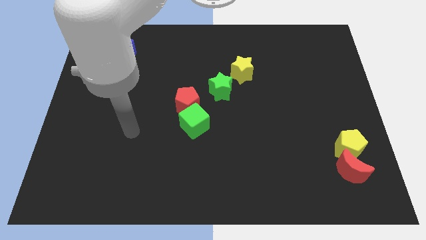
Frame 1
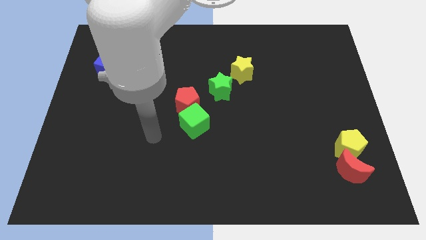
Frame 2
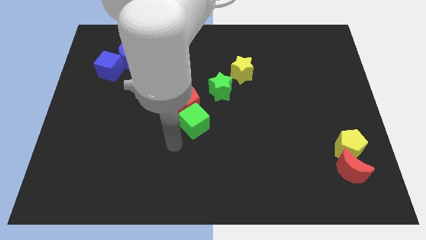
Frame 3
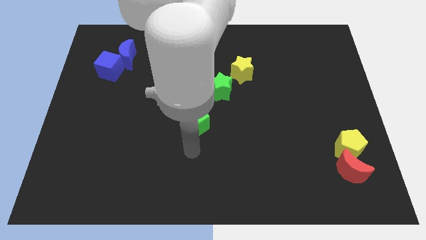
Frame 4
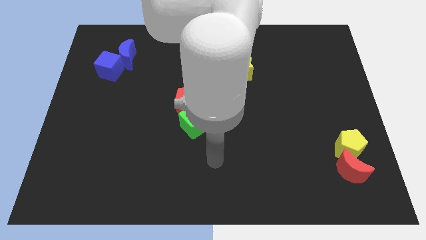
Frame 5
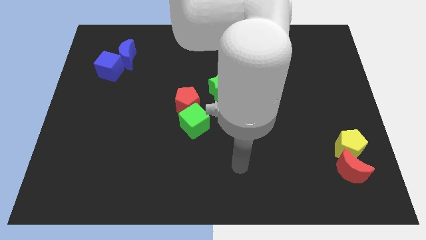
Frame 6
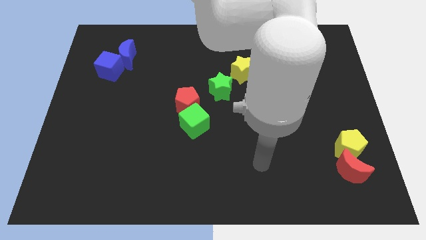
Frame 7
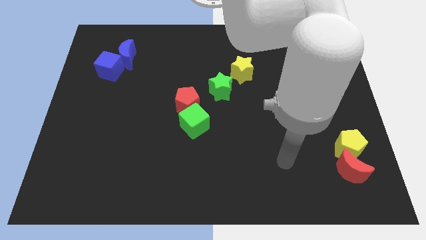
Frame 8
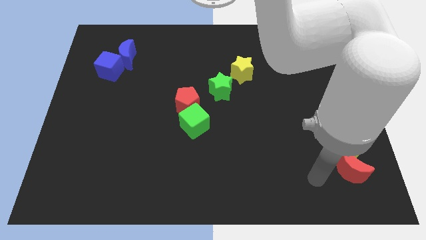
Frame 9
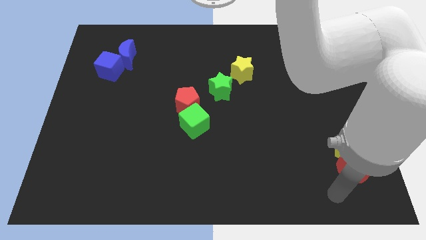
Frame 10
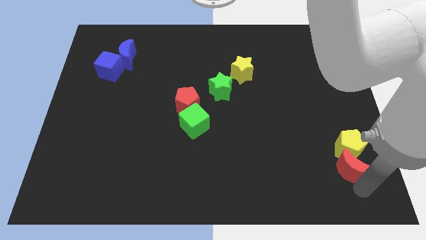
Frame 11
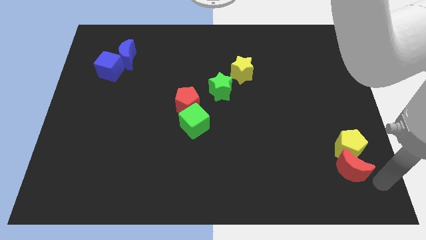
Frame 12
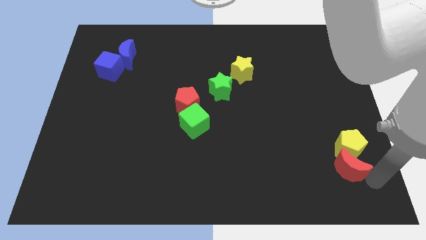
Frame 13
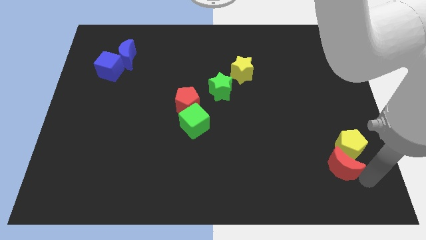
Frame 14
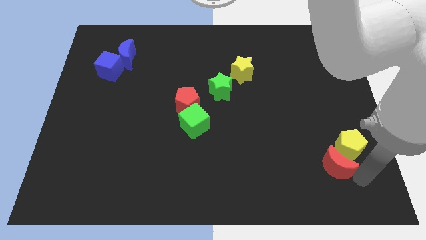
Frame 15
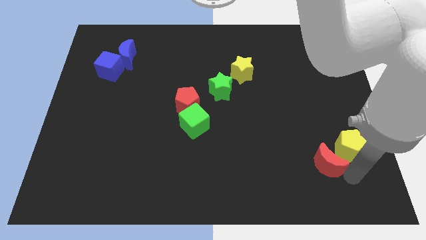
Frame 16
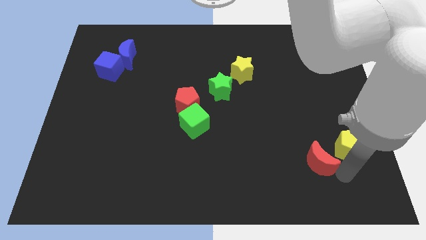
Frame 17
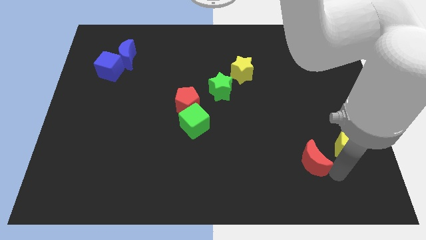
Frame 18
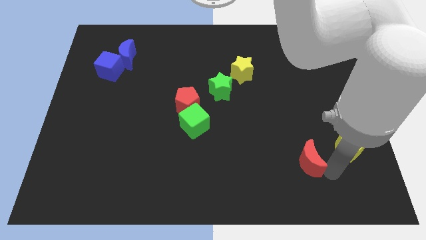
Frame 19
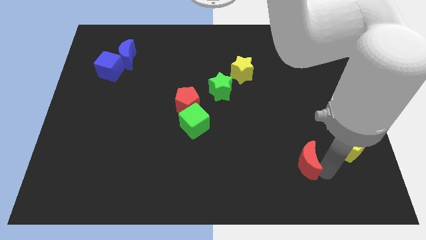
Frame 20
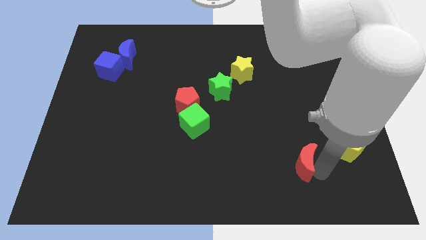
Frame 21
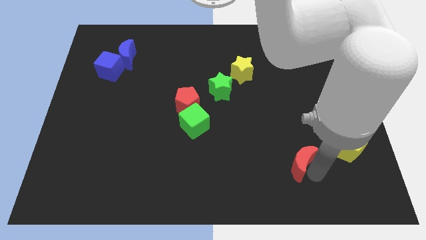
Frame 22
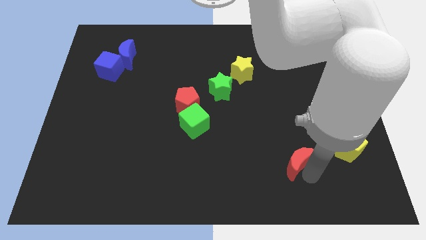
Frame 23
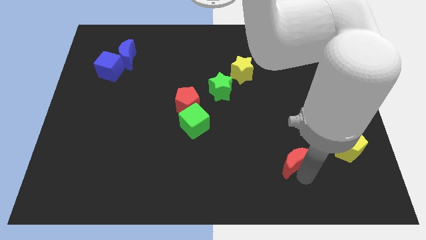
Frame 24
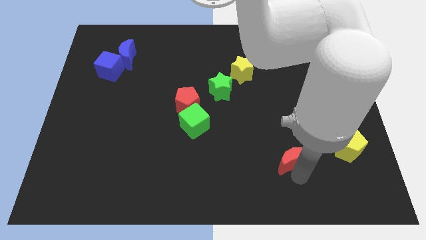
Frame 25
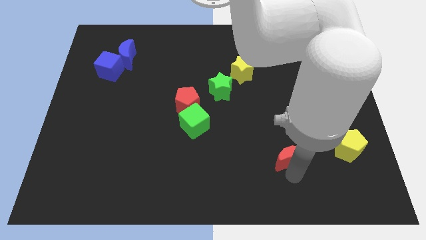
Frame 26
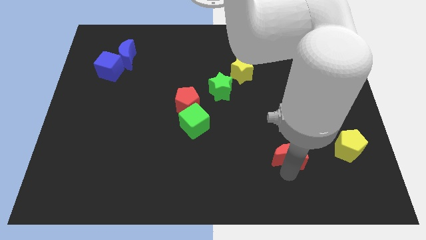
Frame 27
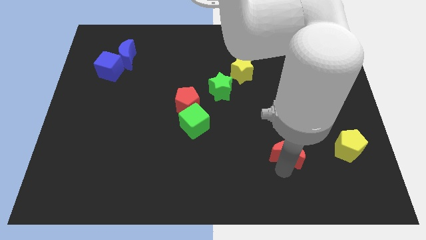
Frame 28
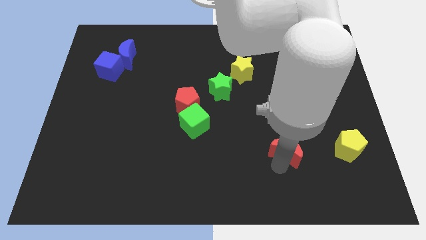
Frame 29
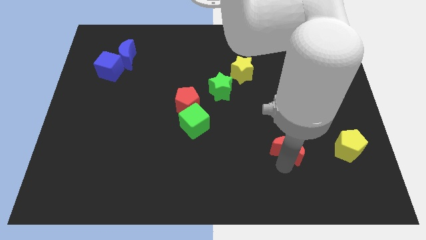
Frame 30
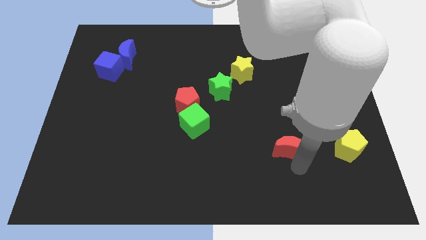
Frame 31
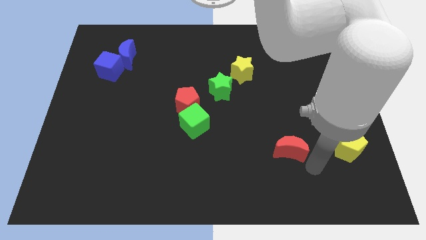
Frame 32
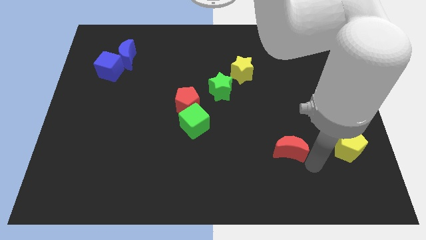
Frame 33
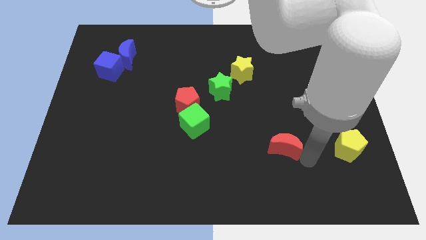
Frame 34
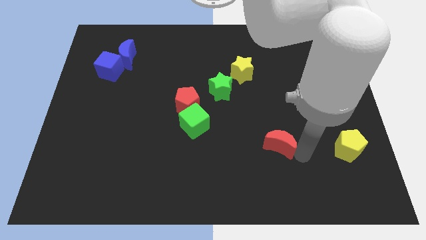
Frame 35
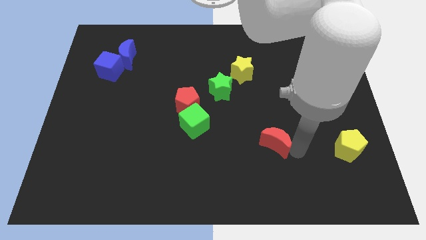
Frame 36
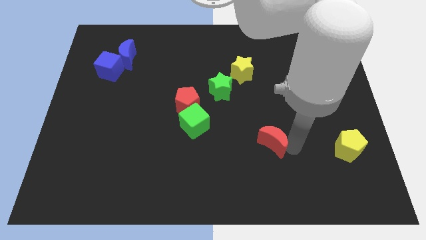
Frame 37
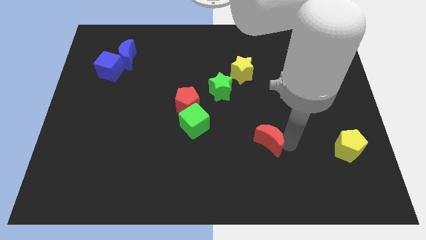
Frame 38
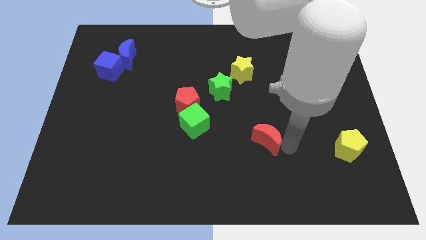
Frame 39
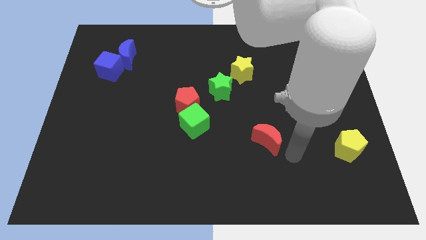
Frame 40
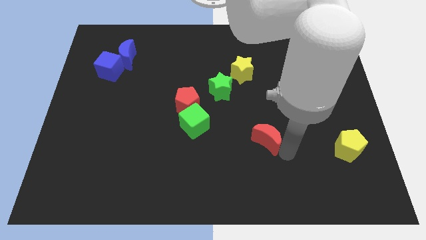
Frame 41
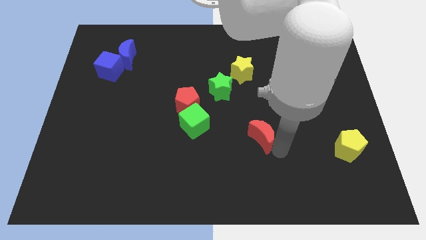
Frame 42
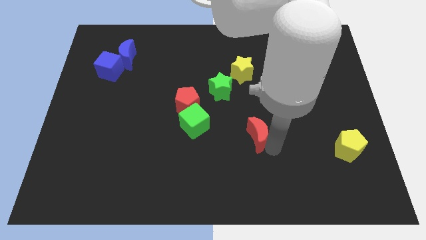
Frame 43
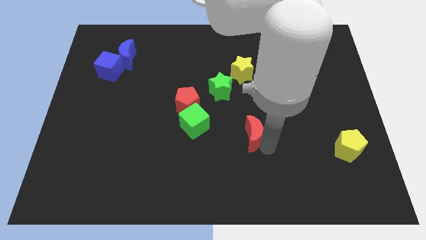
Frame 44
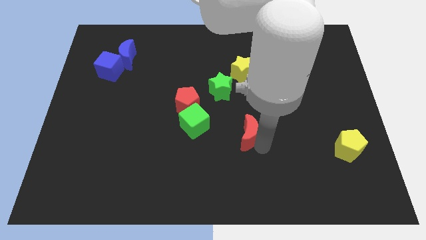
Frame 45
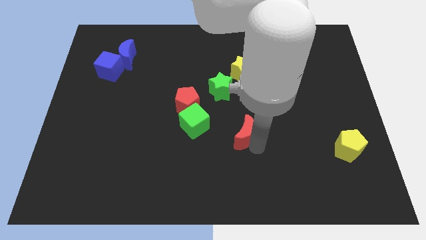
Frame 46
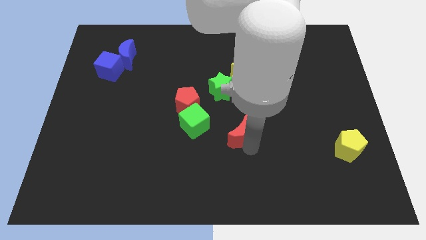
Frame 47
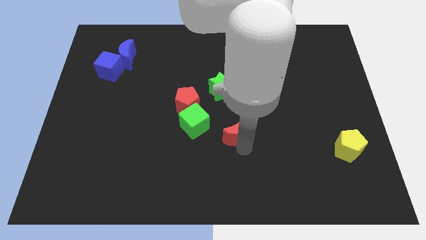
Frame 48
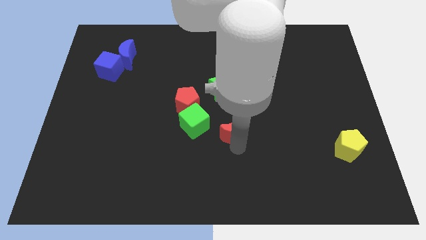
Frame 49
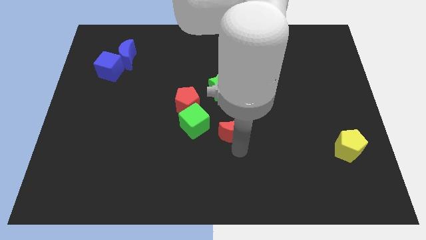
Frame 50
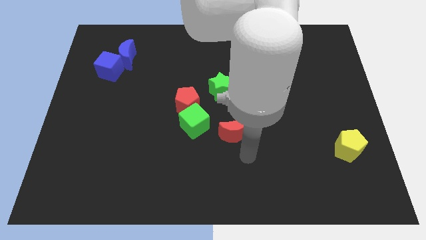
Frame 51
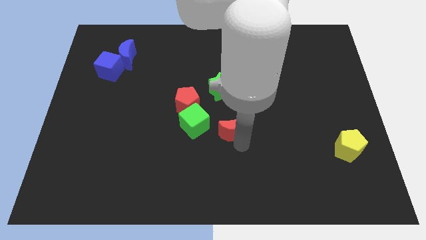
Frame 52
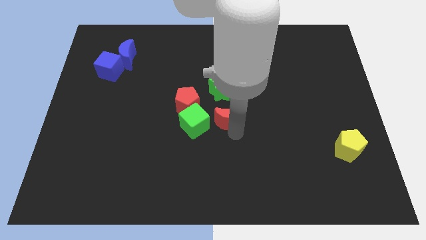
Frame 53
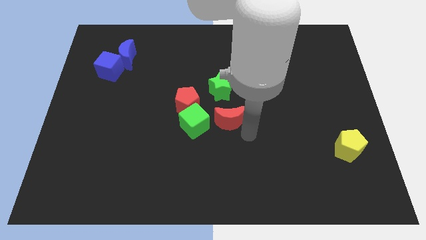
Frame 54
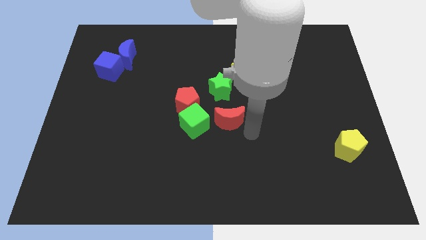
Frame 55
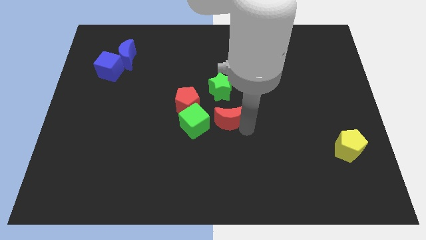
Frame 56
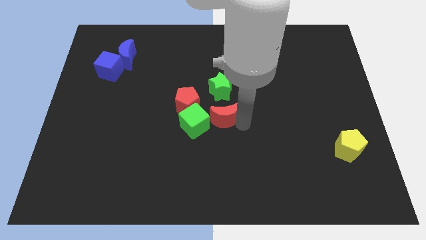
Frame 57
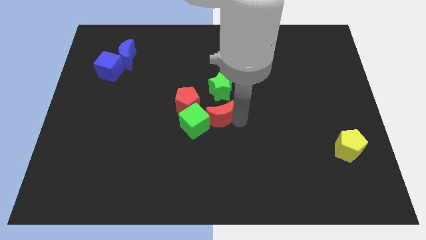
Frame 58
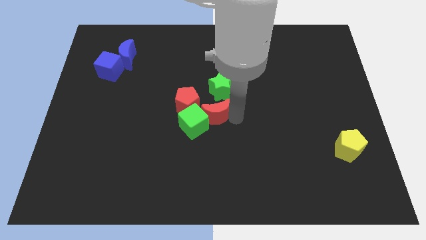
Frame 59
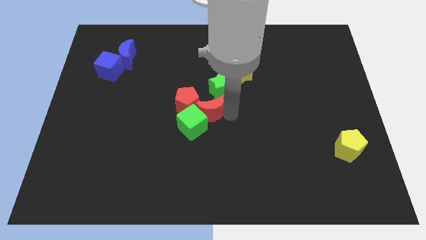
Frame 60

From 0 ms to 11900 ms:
put the red moon towards the red pentagon

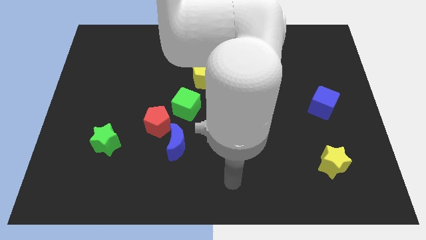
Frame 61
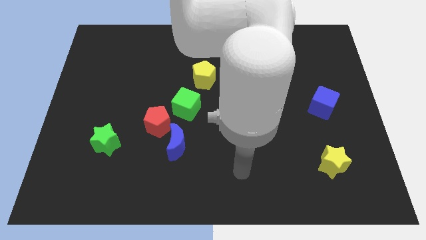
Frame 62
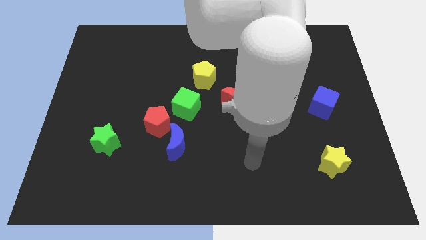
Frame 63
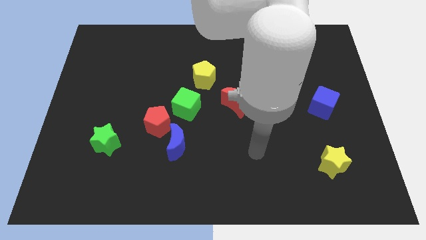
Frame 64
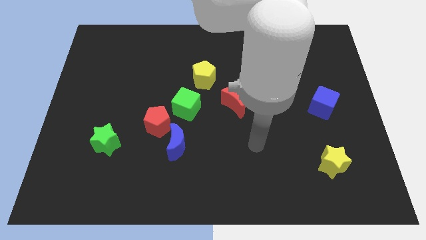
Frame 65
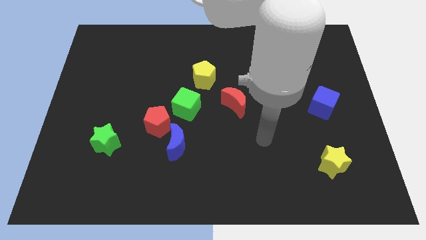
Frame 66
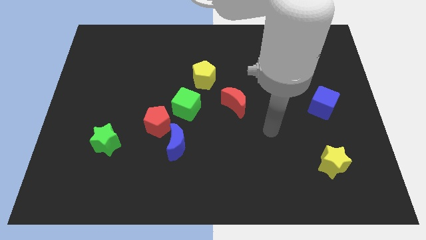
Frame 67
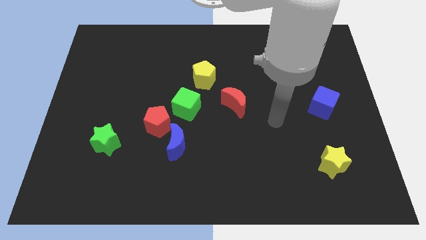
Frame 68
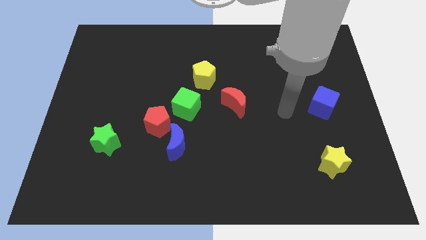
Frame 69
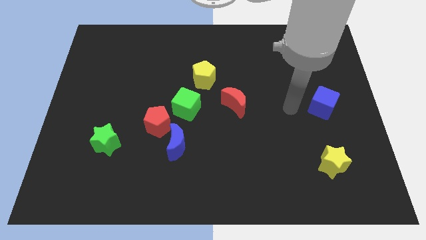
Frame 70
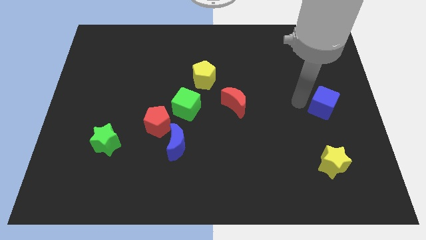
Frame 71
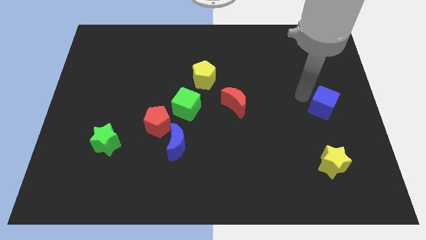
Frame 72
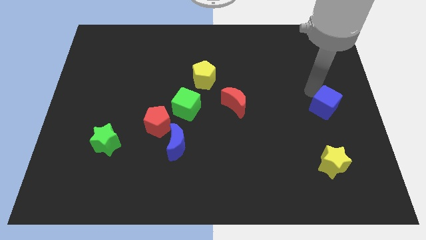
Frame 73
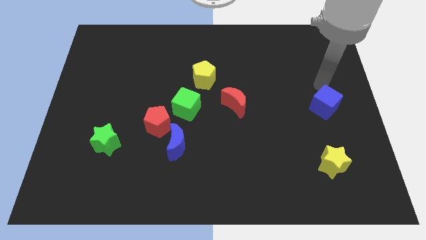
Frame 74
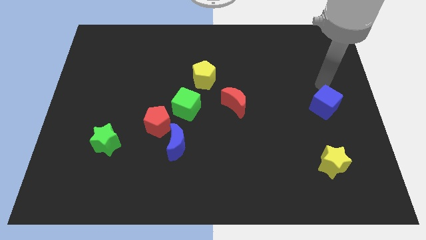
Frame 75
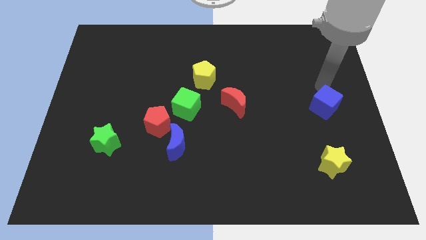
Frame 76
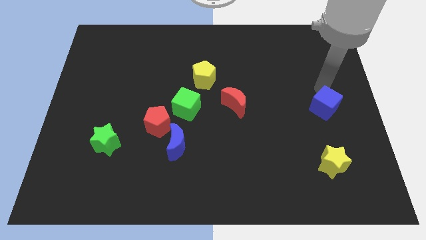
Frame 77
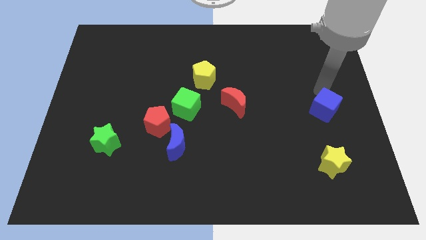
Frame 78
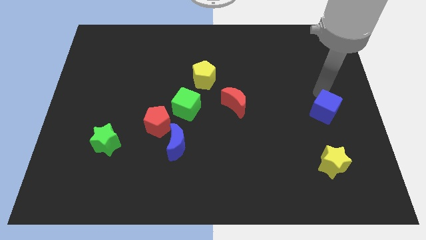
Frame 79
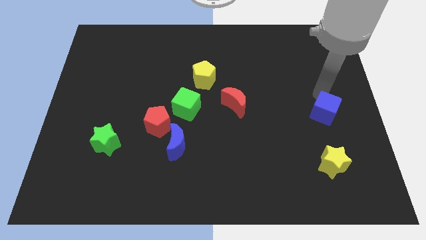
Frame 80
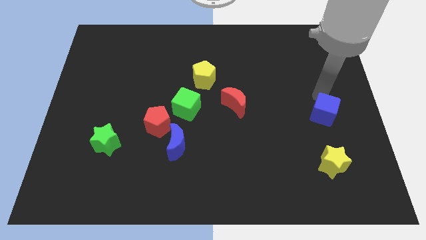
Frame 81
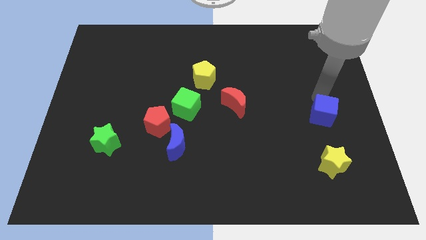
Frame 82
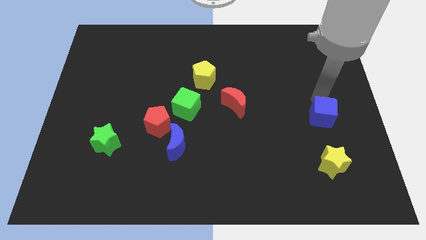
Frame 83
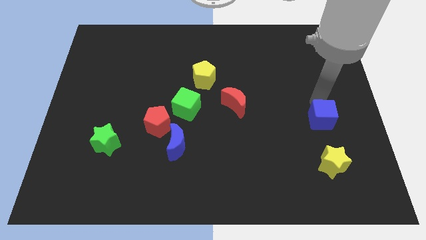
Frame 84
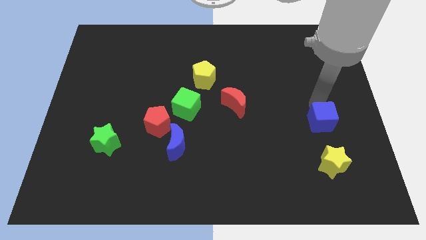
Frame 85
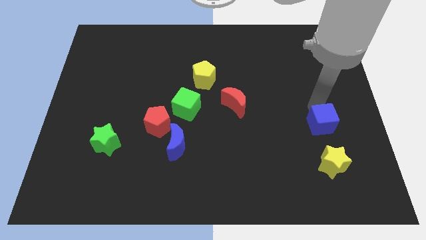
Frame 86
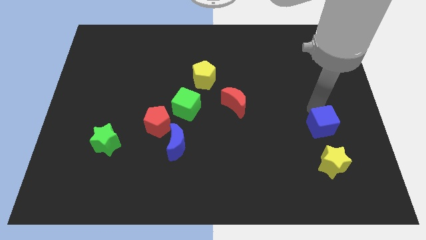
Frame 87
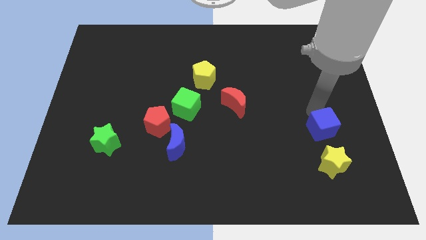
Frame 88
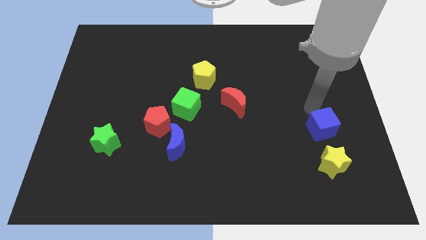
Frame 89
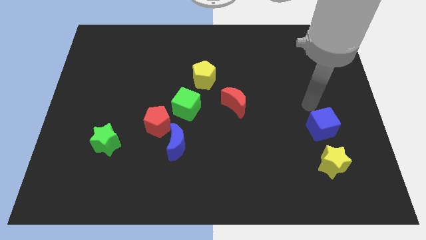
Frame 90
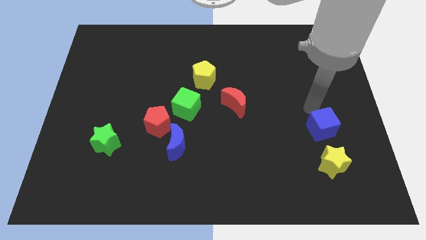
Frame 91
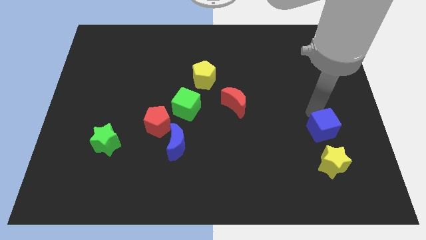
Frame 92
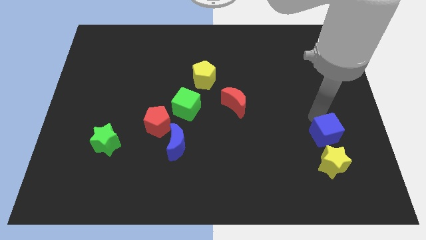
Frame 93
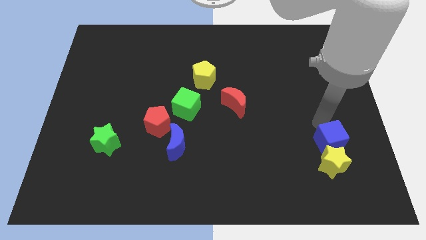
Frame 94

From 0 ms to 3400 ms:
put the blue cube to the yellow star
